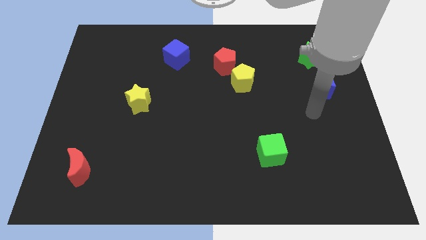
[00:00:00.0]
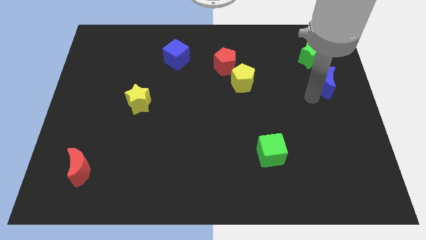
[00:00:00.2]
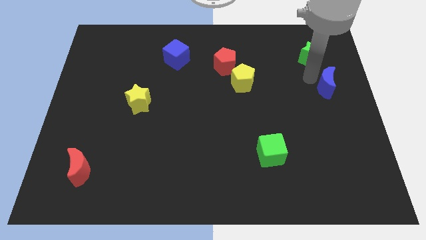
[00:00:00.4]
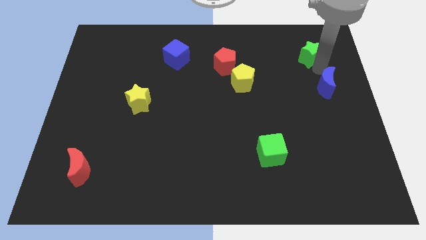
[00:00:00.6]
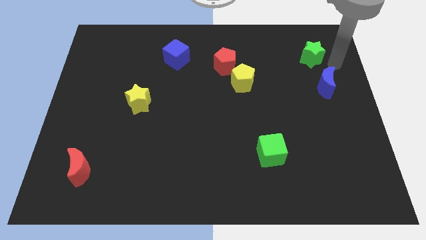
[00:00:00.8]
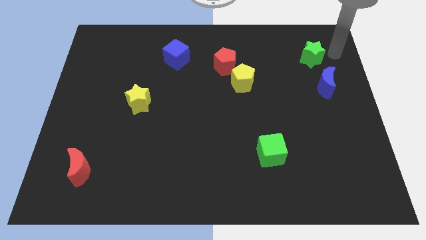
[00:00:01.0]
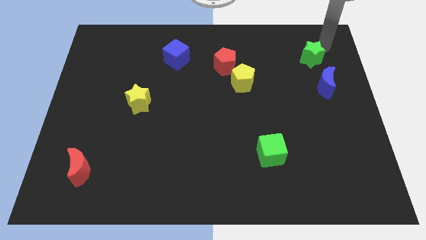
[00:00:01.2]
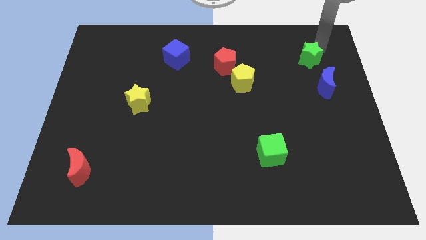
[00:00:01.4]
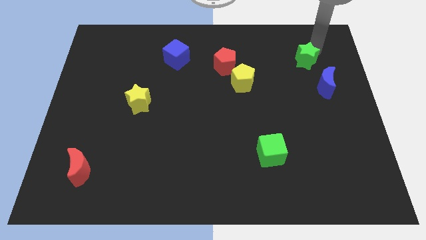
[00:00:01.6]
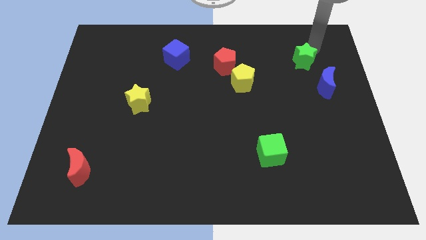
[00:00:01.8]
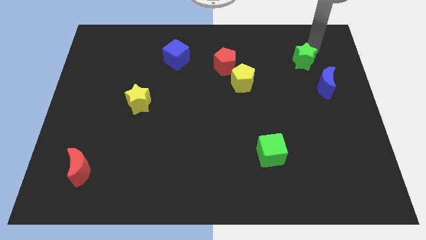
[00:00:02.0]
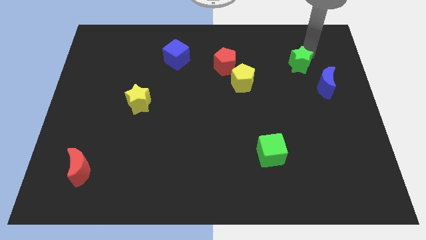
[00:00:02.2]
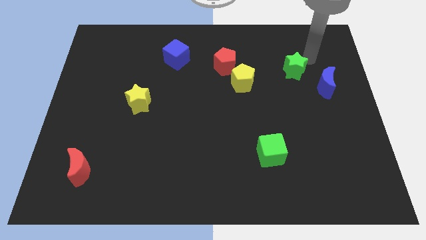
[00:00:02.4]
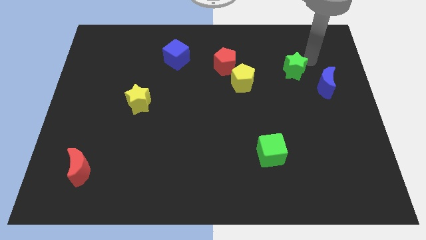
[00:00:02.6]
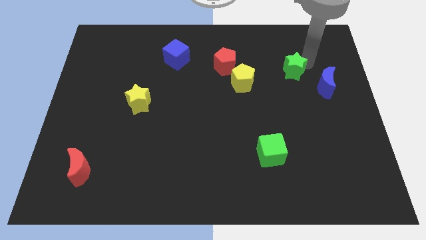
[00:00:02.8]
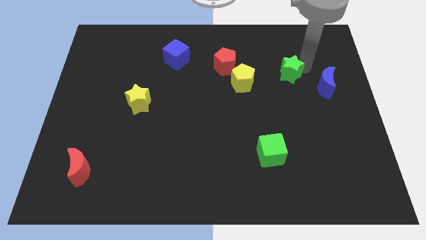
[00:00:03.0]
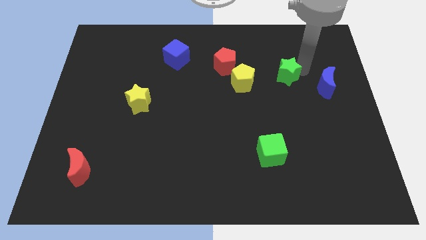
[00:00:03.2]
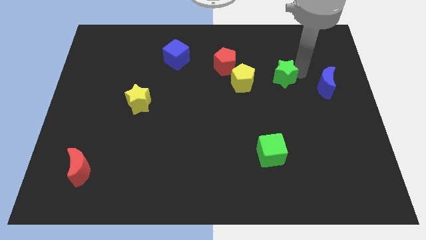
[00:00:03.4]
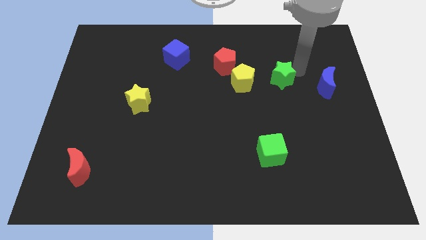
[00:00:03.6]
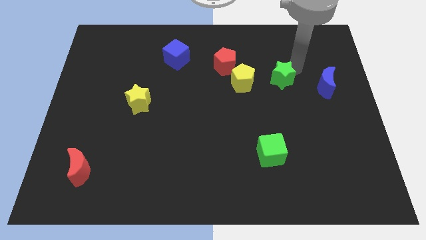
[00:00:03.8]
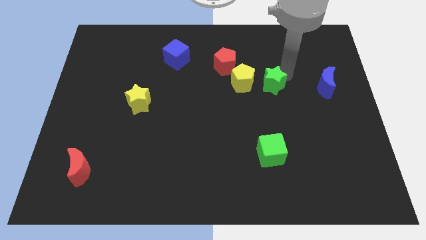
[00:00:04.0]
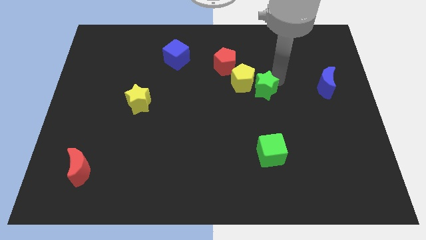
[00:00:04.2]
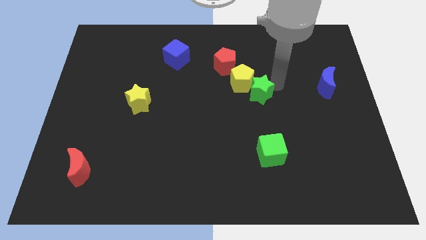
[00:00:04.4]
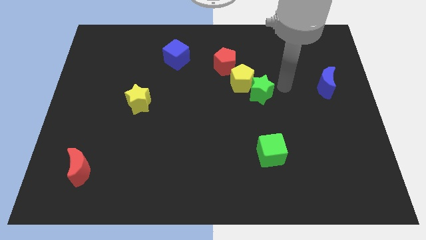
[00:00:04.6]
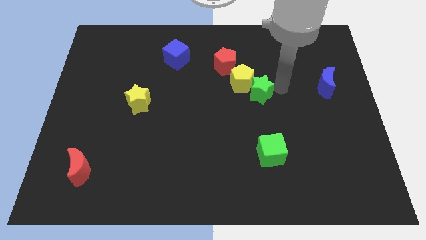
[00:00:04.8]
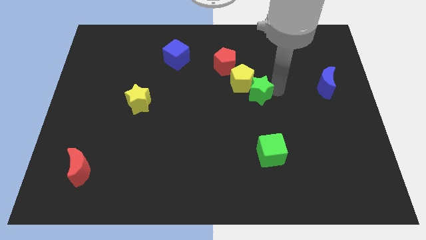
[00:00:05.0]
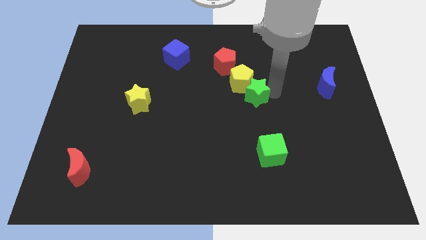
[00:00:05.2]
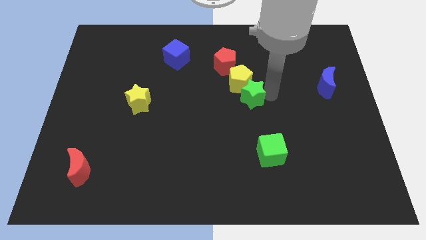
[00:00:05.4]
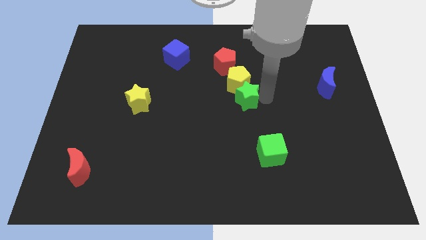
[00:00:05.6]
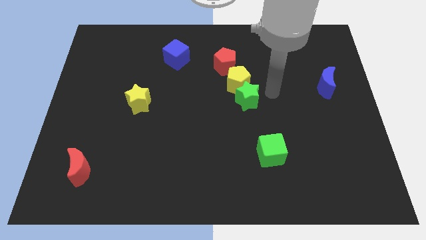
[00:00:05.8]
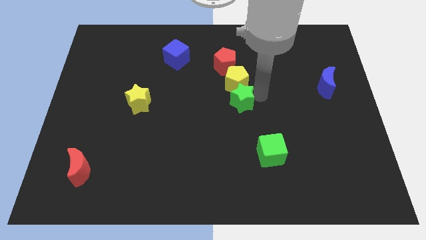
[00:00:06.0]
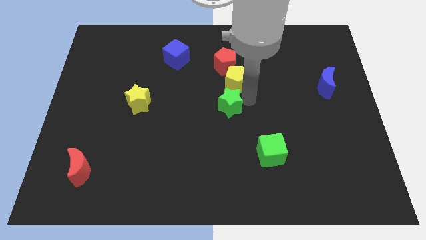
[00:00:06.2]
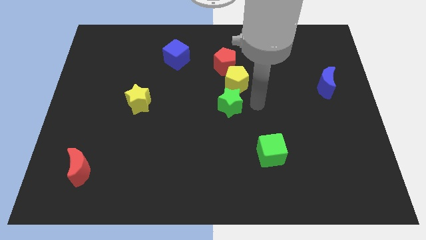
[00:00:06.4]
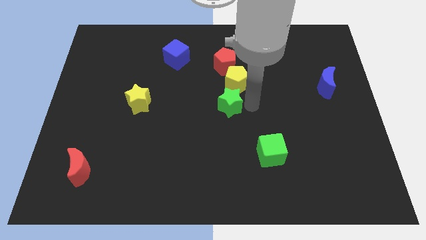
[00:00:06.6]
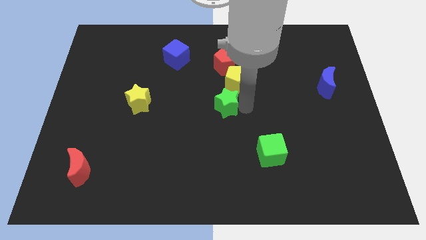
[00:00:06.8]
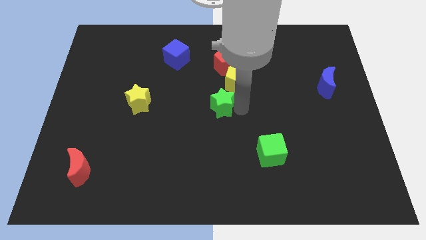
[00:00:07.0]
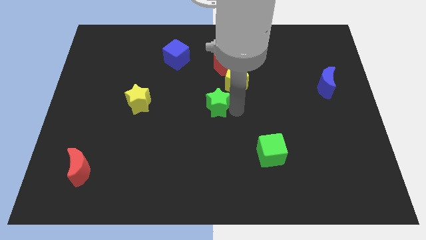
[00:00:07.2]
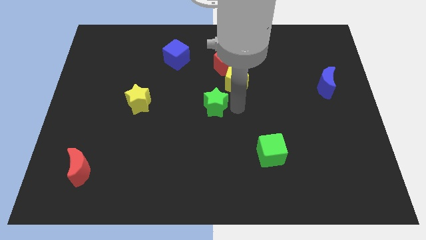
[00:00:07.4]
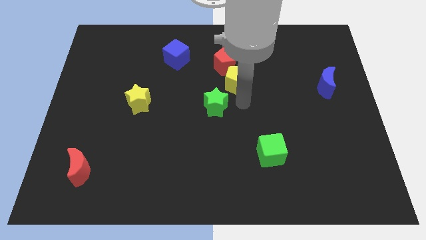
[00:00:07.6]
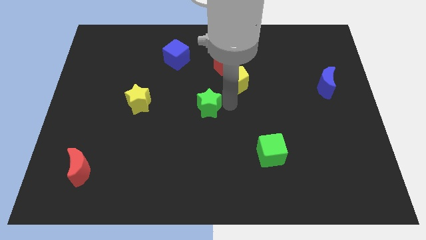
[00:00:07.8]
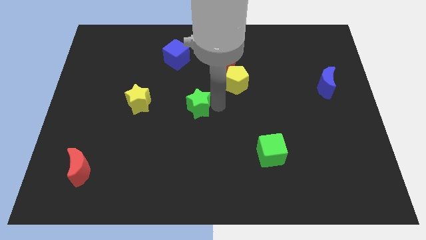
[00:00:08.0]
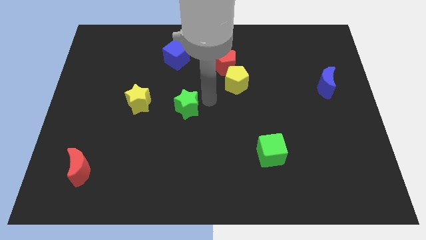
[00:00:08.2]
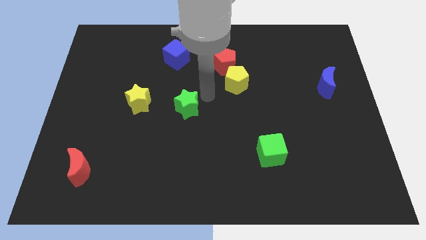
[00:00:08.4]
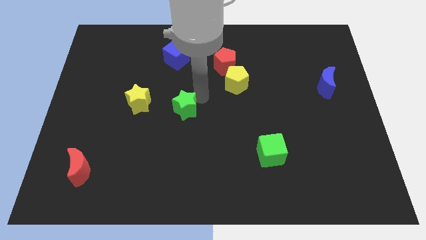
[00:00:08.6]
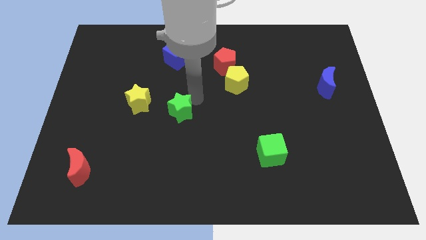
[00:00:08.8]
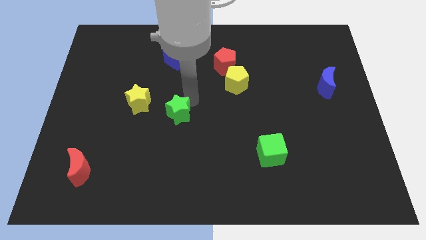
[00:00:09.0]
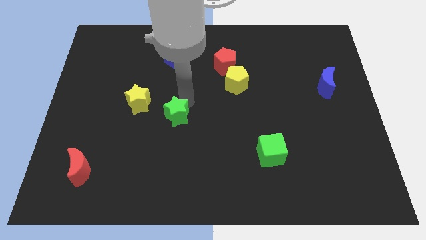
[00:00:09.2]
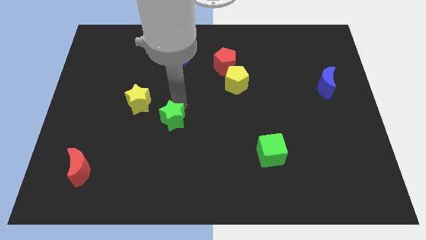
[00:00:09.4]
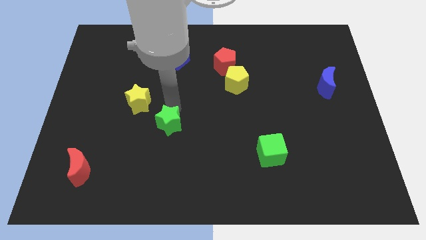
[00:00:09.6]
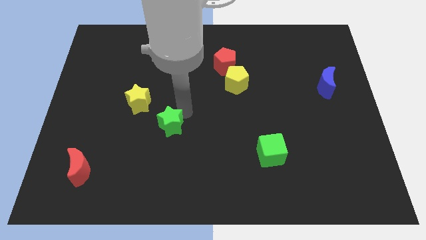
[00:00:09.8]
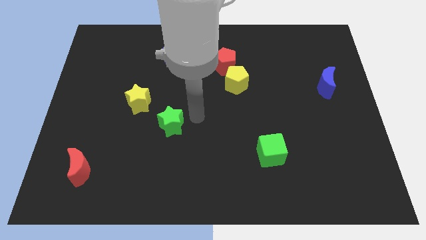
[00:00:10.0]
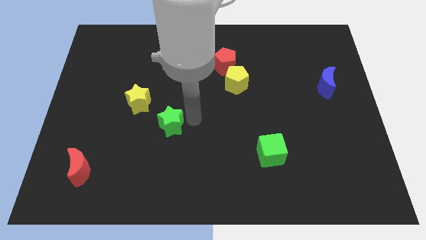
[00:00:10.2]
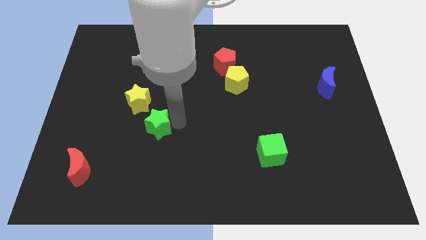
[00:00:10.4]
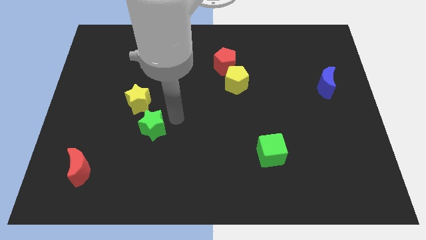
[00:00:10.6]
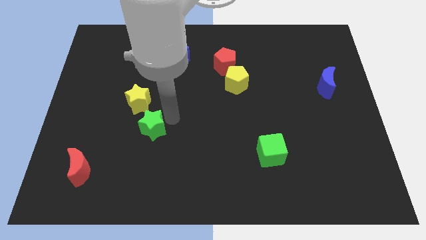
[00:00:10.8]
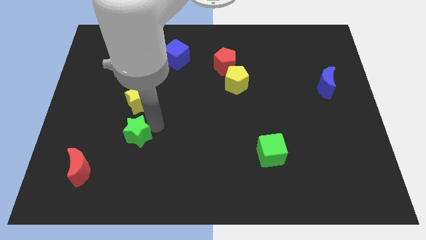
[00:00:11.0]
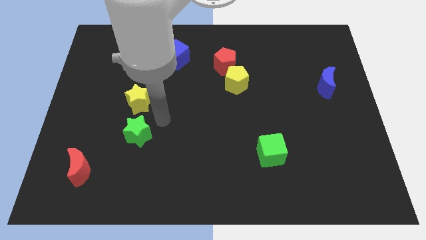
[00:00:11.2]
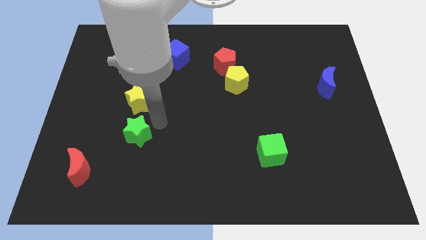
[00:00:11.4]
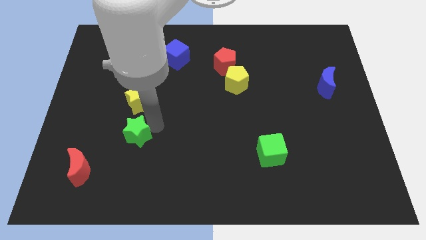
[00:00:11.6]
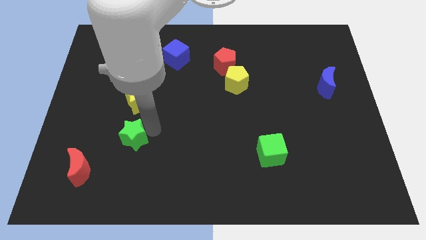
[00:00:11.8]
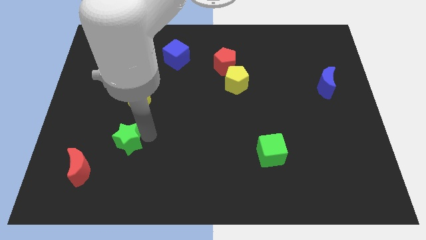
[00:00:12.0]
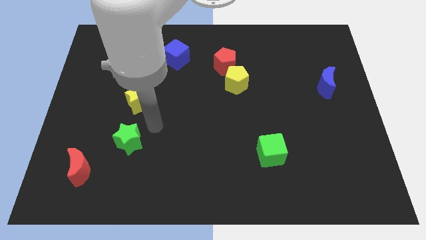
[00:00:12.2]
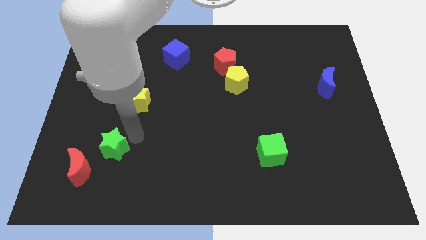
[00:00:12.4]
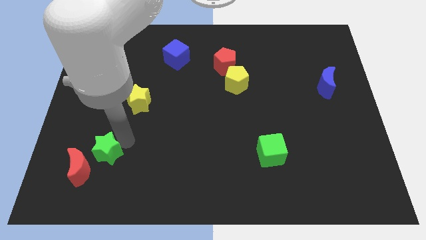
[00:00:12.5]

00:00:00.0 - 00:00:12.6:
slide the green star to the red moon

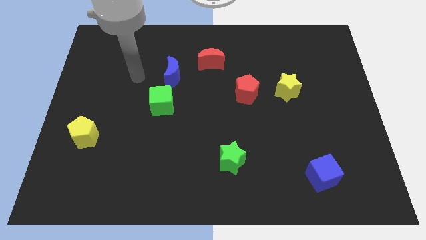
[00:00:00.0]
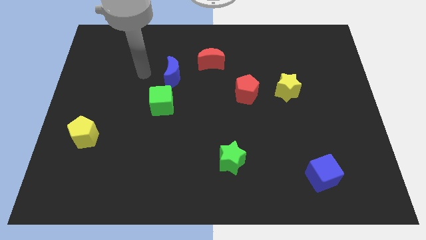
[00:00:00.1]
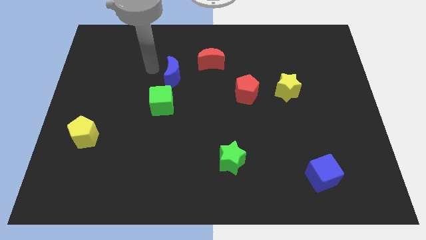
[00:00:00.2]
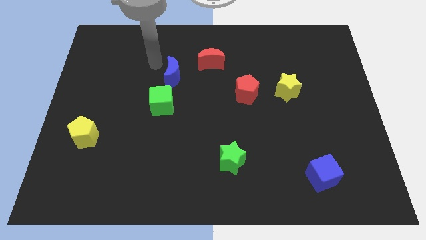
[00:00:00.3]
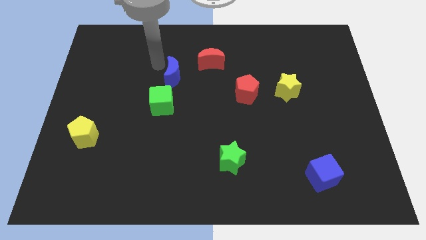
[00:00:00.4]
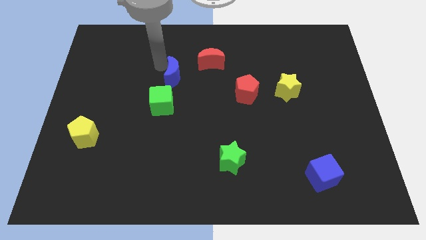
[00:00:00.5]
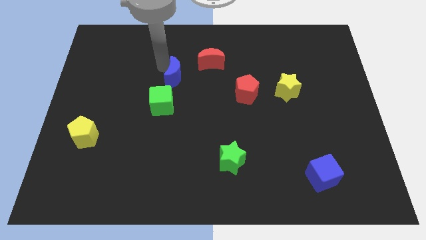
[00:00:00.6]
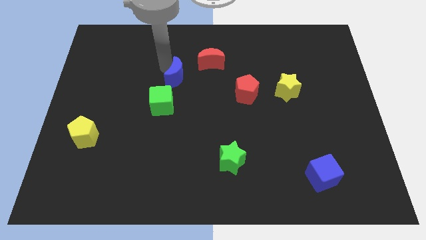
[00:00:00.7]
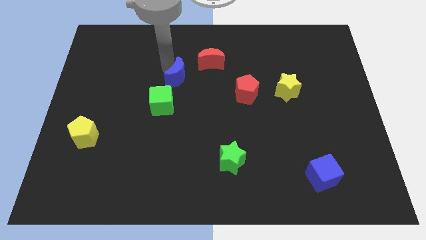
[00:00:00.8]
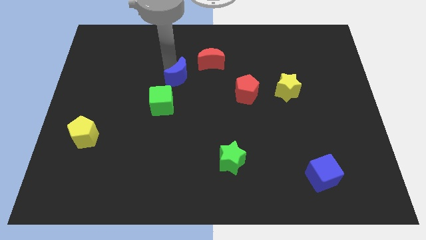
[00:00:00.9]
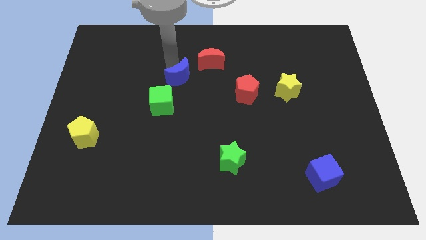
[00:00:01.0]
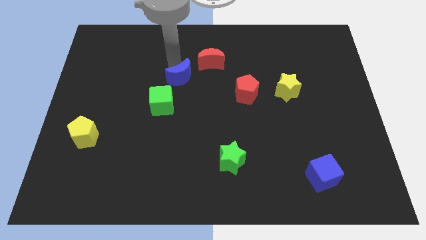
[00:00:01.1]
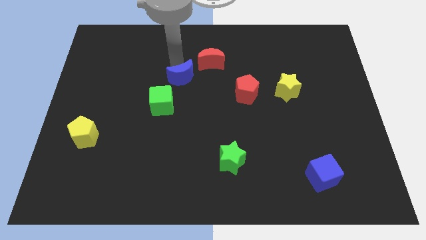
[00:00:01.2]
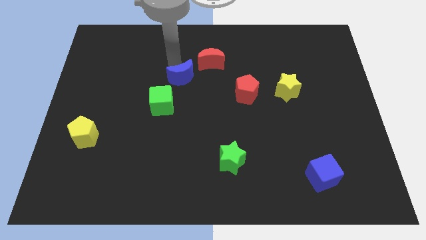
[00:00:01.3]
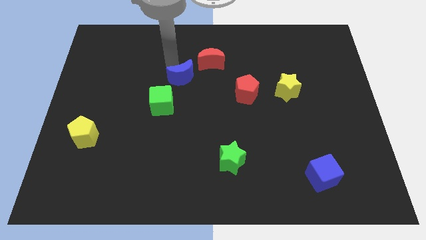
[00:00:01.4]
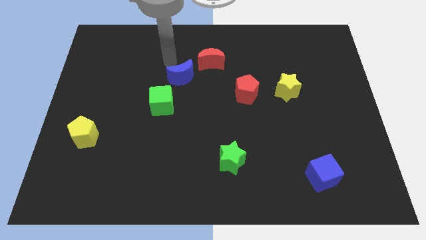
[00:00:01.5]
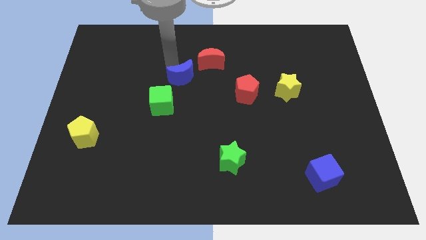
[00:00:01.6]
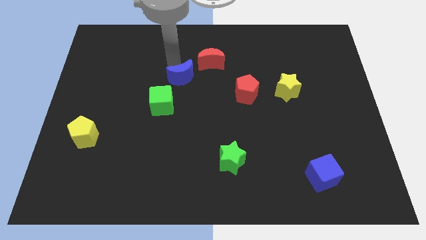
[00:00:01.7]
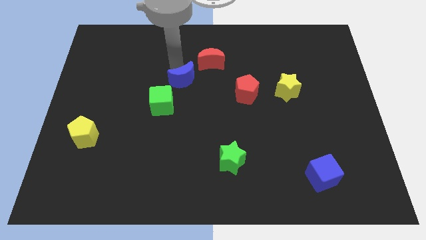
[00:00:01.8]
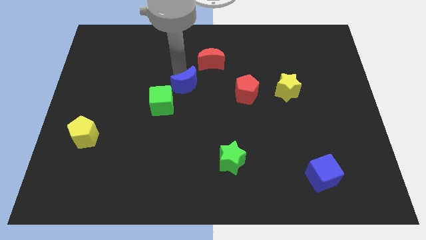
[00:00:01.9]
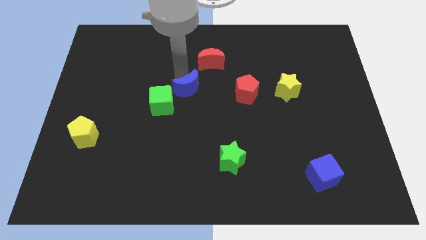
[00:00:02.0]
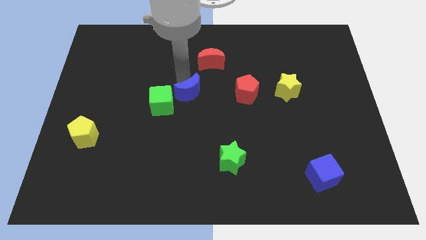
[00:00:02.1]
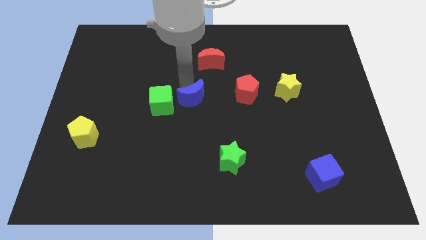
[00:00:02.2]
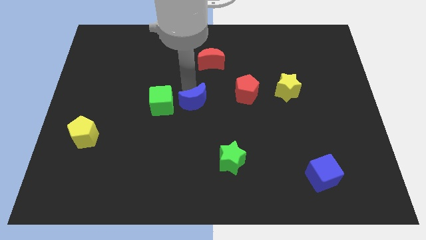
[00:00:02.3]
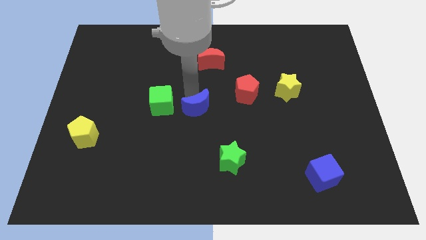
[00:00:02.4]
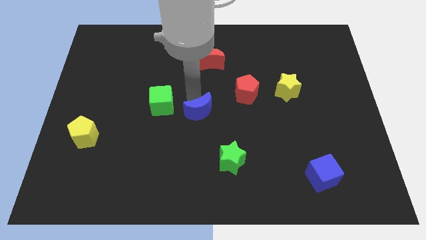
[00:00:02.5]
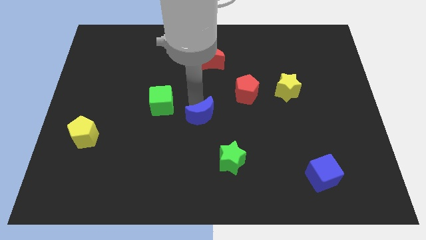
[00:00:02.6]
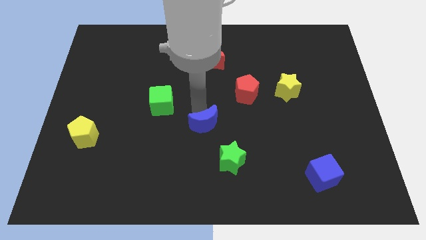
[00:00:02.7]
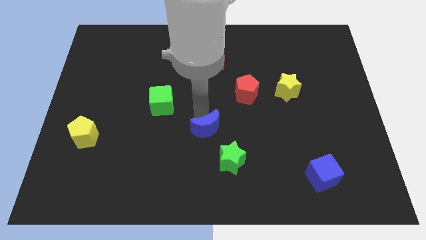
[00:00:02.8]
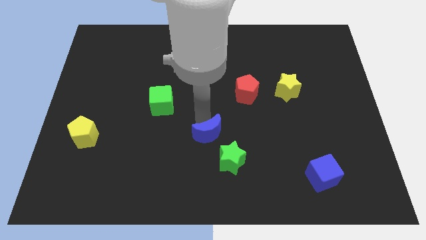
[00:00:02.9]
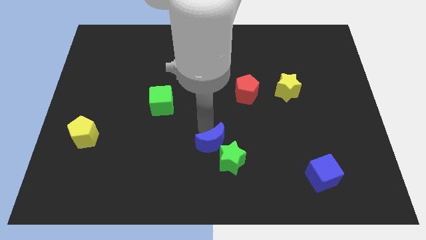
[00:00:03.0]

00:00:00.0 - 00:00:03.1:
put the blue moon next to the green star
